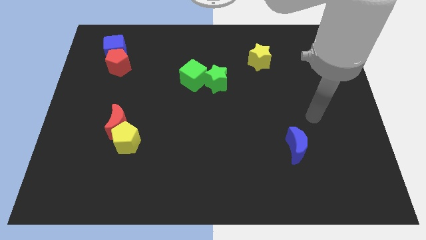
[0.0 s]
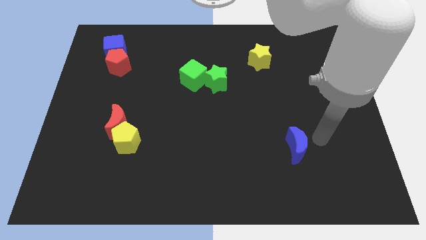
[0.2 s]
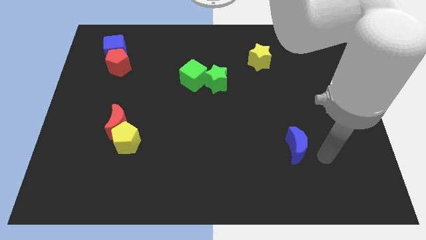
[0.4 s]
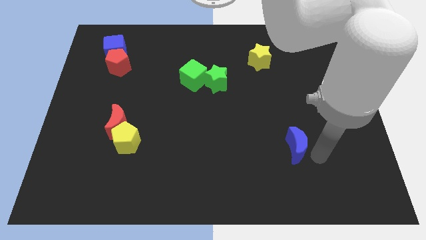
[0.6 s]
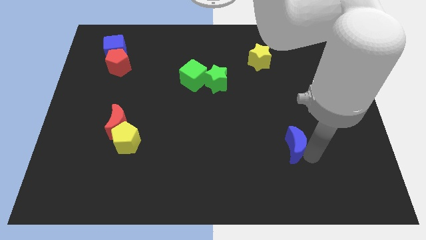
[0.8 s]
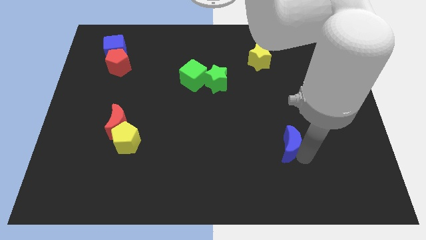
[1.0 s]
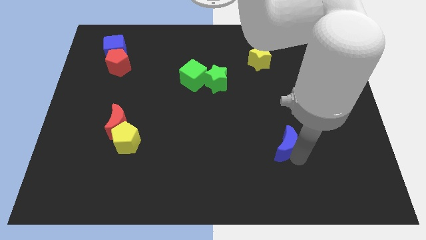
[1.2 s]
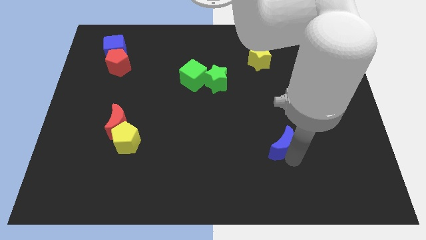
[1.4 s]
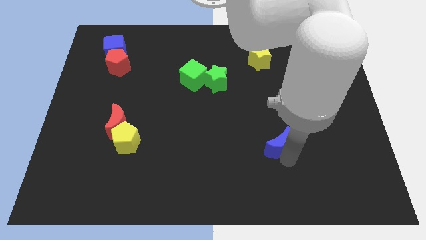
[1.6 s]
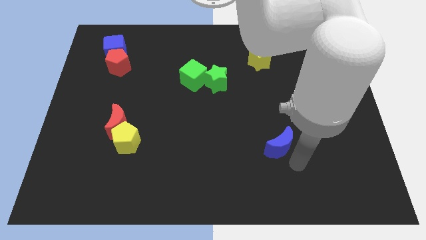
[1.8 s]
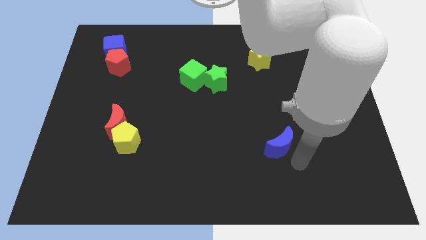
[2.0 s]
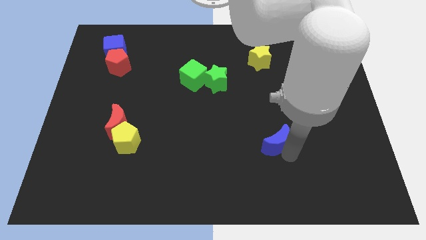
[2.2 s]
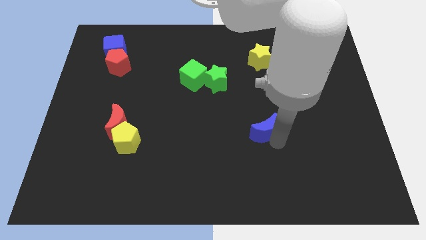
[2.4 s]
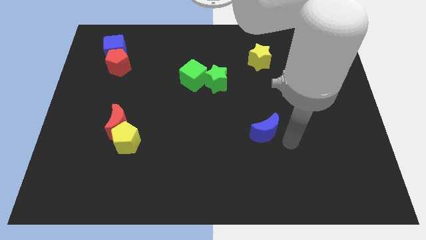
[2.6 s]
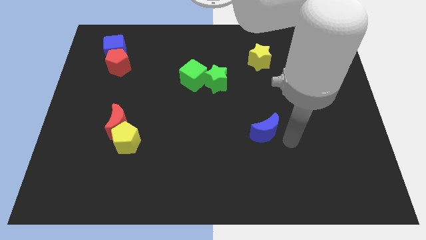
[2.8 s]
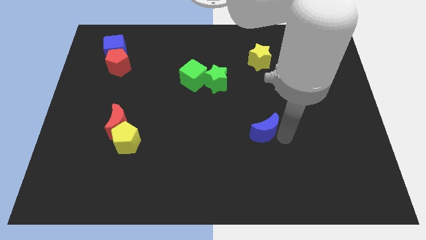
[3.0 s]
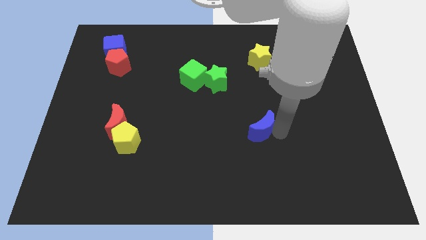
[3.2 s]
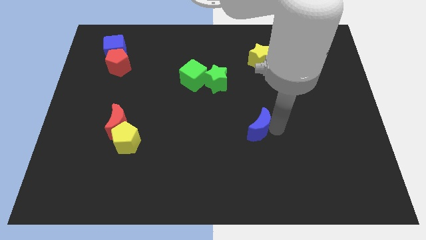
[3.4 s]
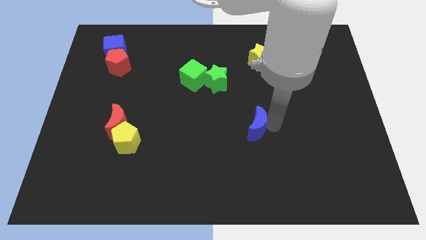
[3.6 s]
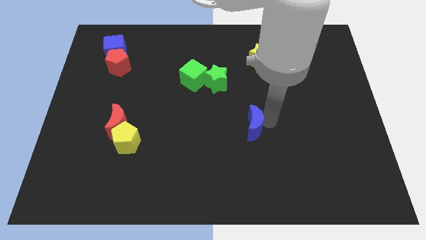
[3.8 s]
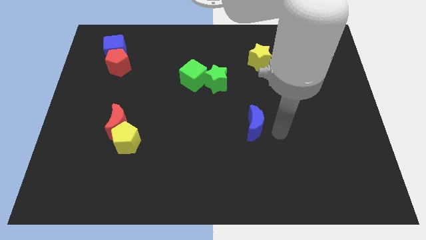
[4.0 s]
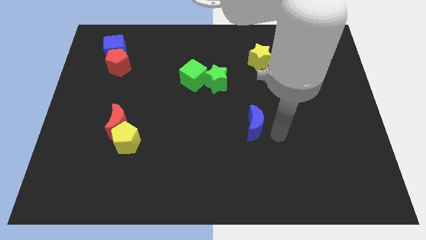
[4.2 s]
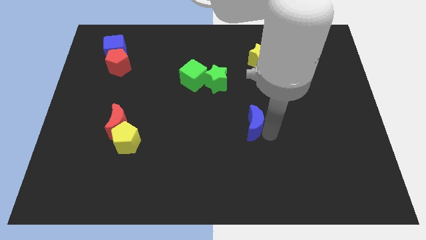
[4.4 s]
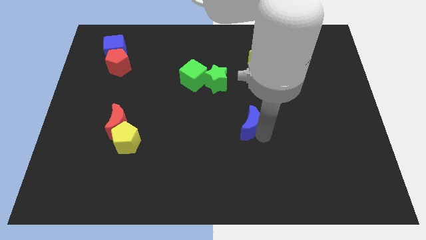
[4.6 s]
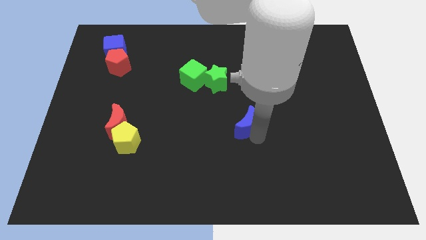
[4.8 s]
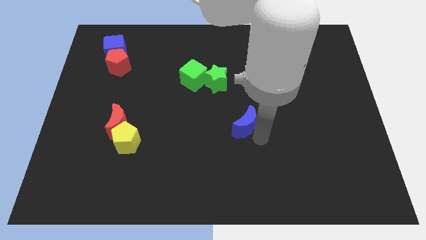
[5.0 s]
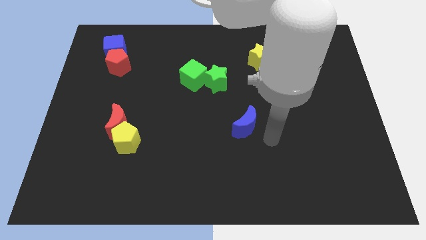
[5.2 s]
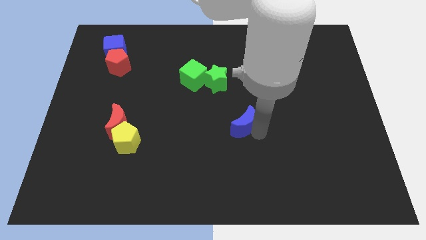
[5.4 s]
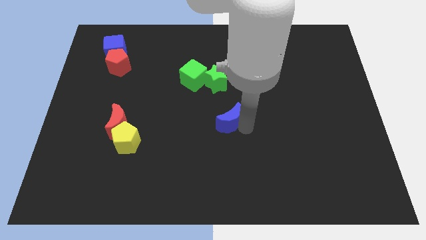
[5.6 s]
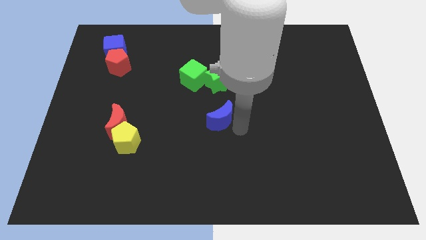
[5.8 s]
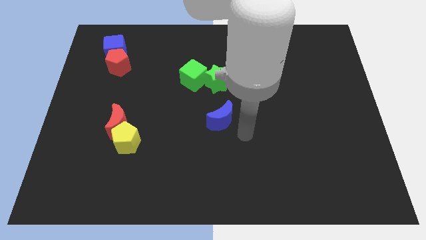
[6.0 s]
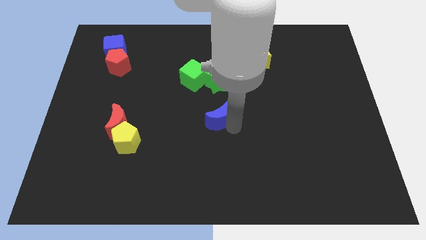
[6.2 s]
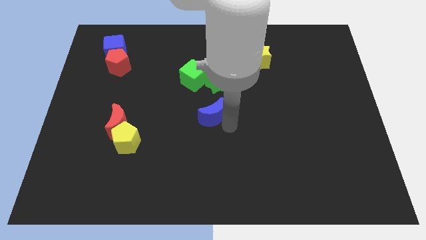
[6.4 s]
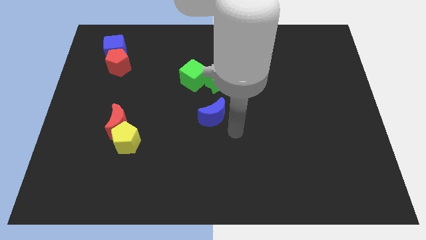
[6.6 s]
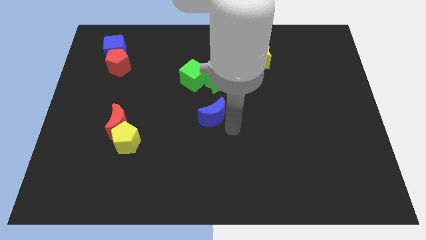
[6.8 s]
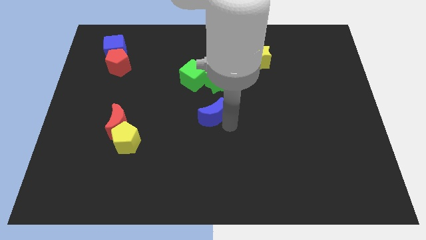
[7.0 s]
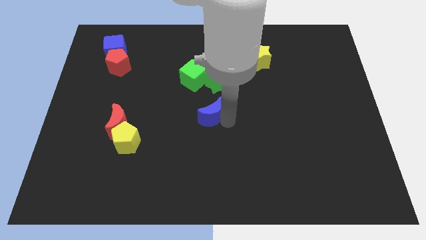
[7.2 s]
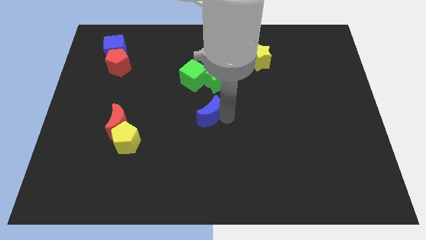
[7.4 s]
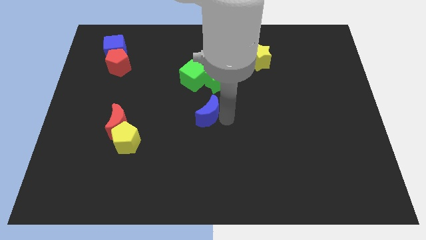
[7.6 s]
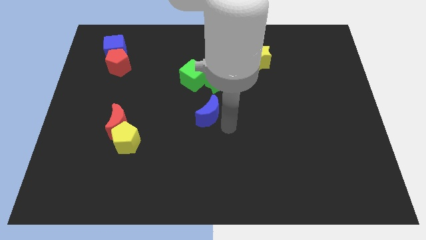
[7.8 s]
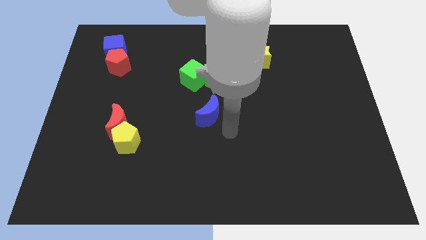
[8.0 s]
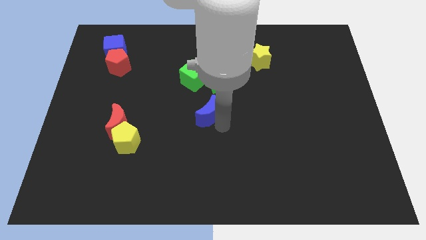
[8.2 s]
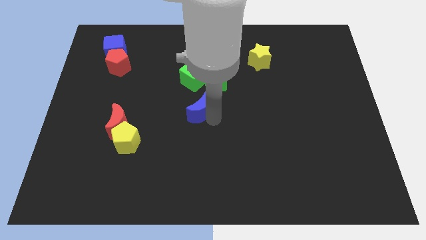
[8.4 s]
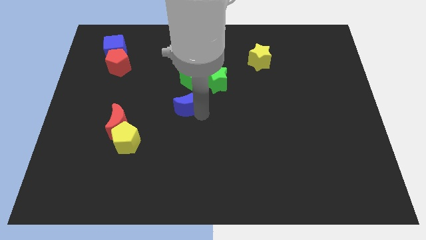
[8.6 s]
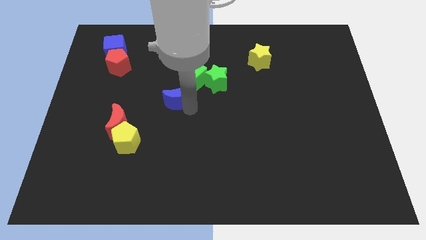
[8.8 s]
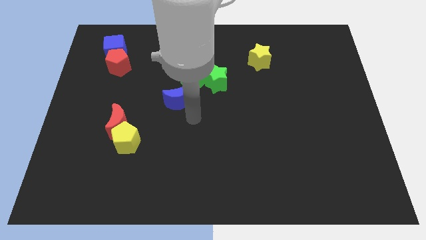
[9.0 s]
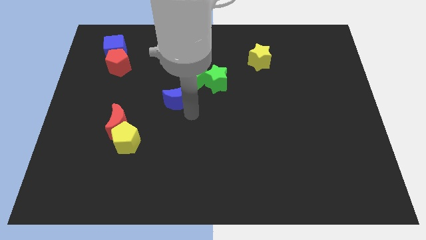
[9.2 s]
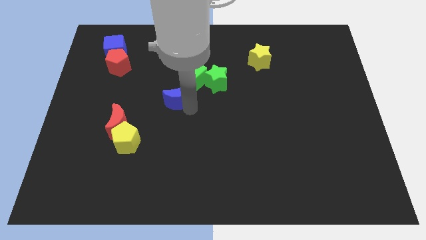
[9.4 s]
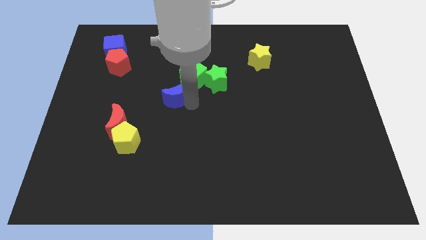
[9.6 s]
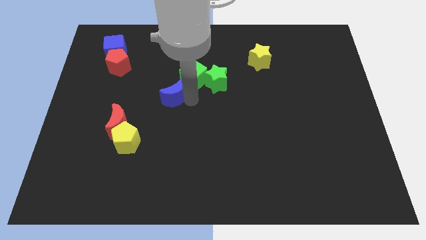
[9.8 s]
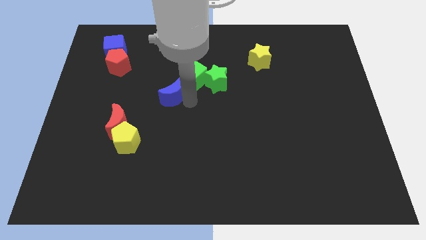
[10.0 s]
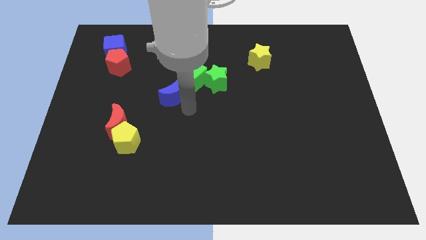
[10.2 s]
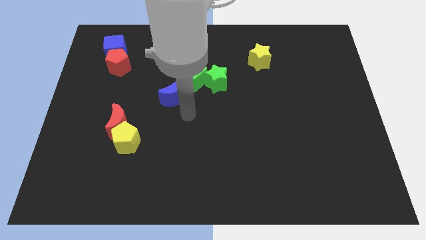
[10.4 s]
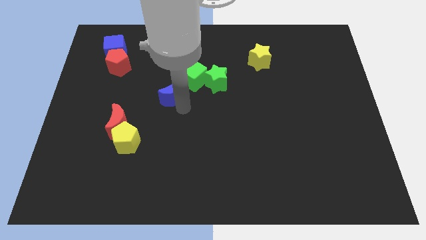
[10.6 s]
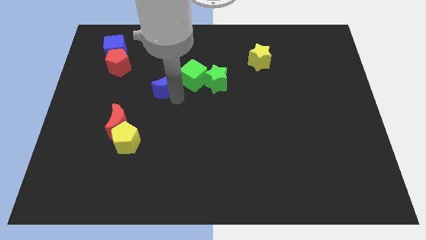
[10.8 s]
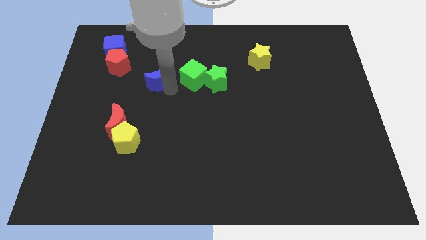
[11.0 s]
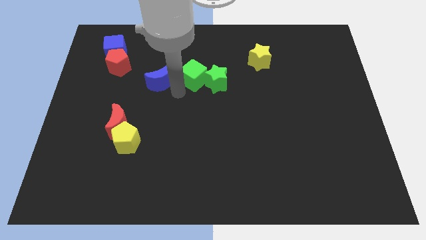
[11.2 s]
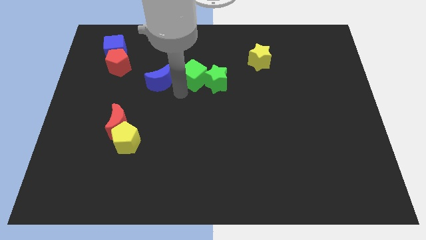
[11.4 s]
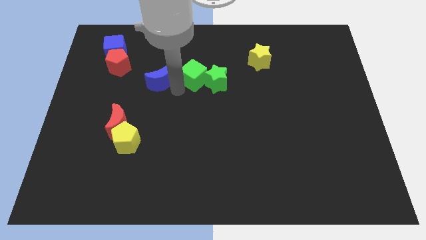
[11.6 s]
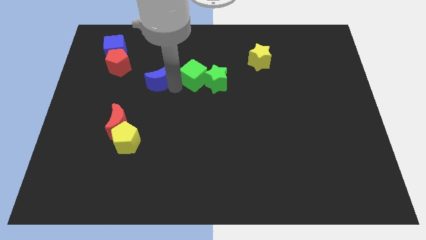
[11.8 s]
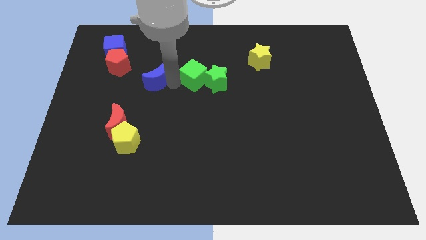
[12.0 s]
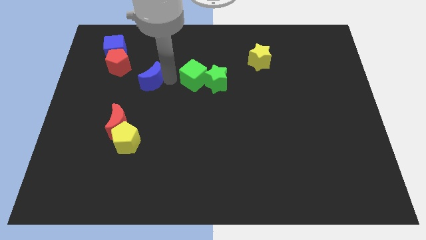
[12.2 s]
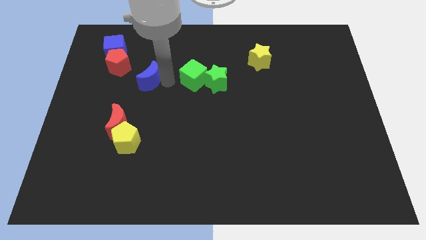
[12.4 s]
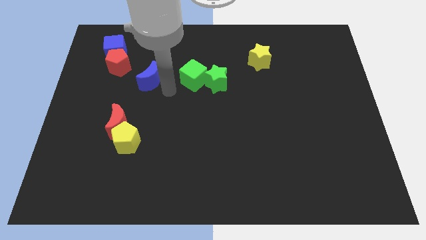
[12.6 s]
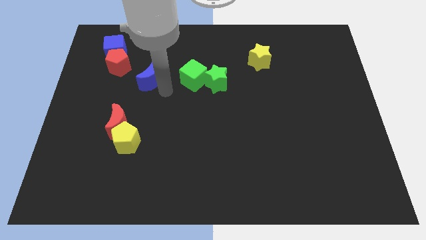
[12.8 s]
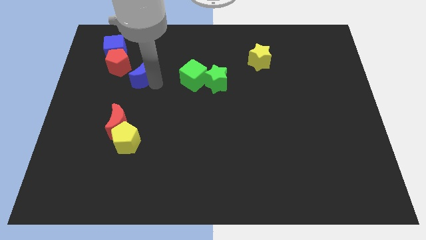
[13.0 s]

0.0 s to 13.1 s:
move the blue moon diagonally down and to the right of the blue cube

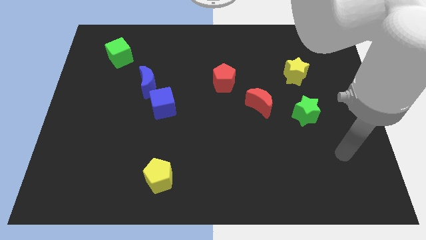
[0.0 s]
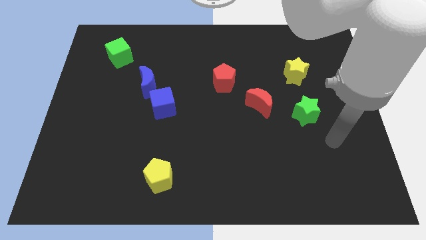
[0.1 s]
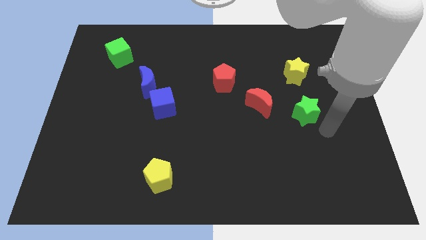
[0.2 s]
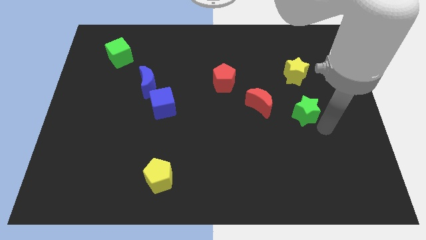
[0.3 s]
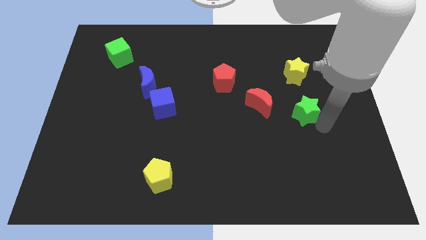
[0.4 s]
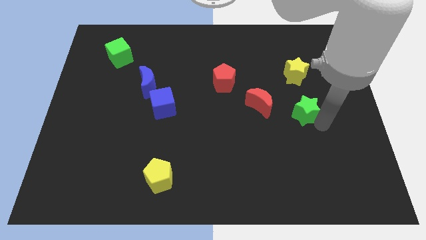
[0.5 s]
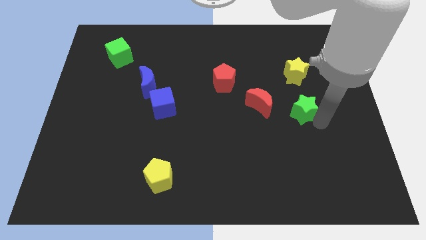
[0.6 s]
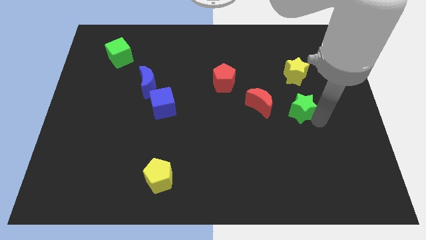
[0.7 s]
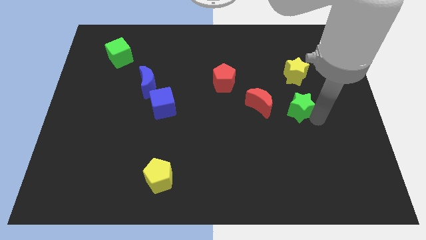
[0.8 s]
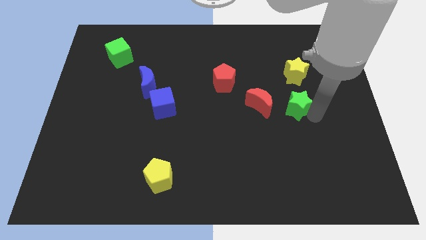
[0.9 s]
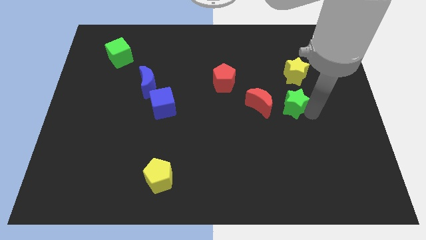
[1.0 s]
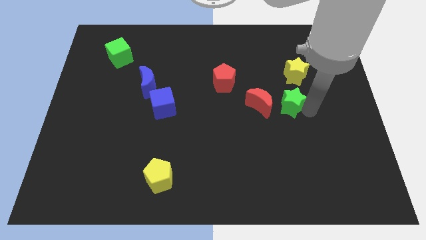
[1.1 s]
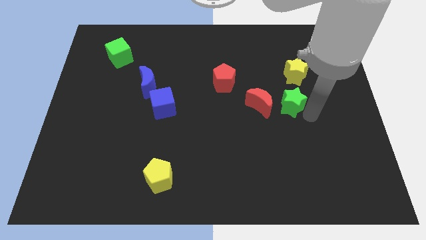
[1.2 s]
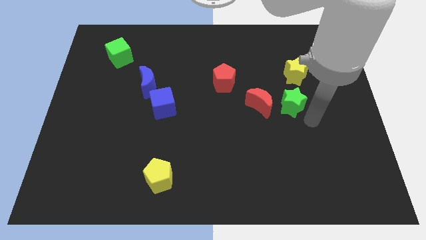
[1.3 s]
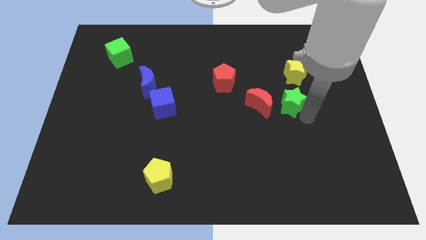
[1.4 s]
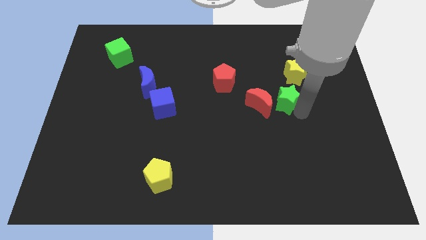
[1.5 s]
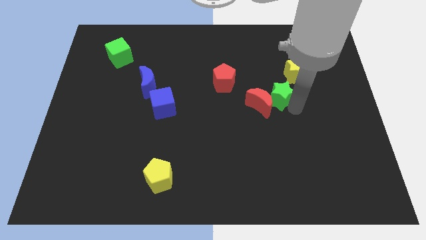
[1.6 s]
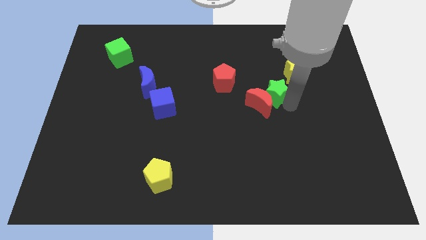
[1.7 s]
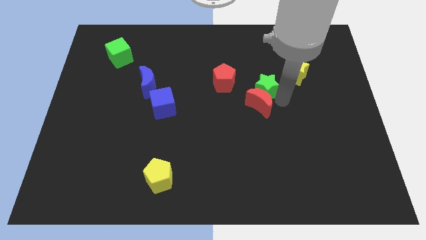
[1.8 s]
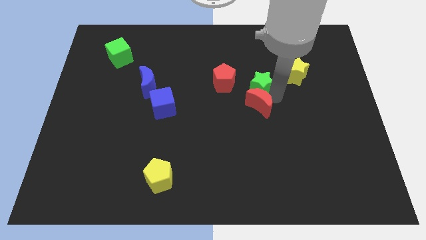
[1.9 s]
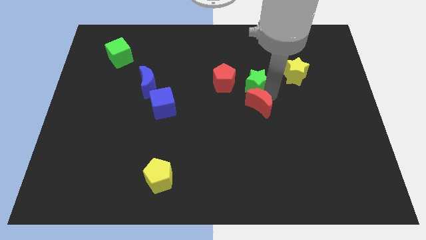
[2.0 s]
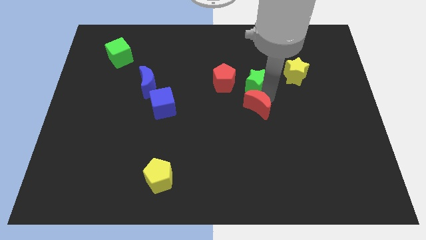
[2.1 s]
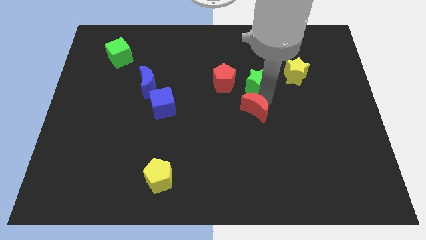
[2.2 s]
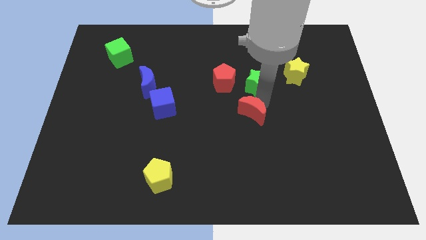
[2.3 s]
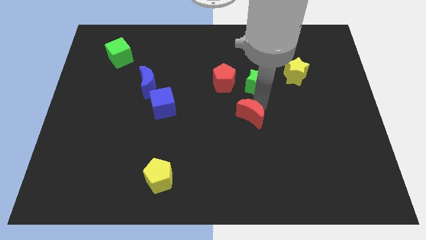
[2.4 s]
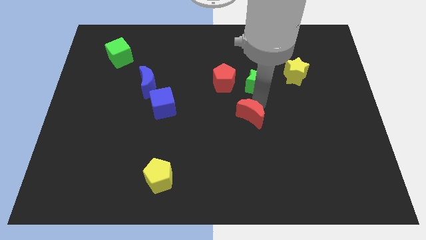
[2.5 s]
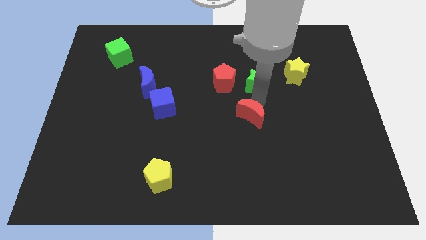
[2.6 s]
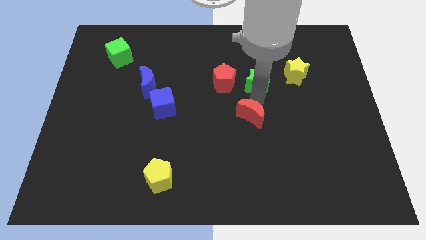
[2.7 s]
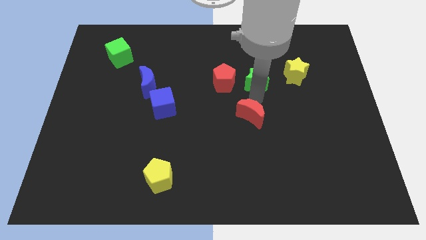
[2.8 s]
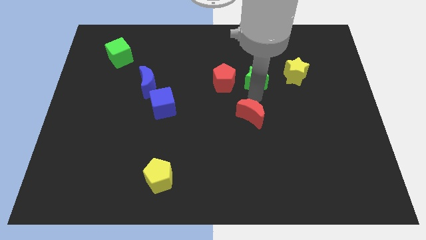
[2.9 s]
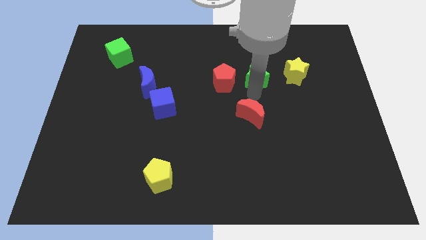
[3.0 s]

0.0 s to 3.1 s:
put the green star diagonally up and to the right of the red pentagon
